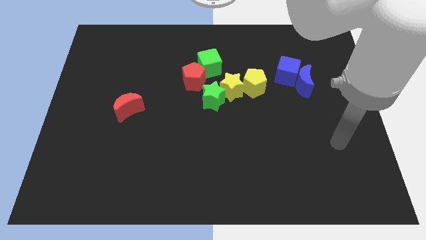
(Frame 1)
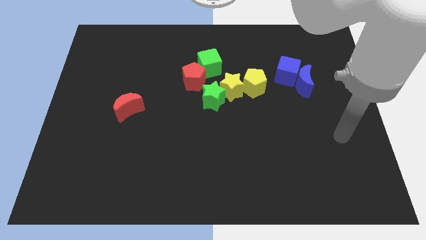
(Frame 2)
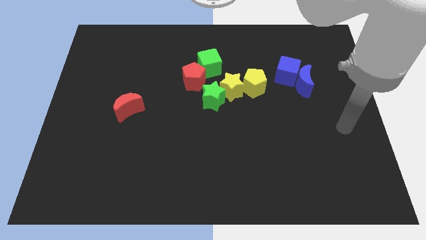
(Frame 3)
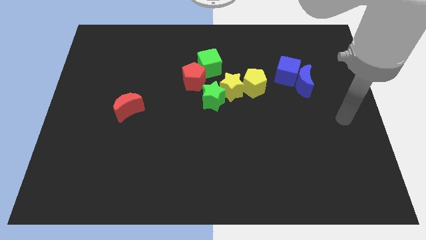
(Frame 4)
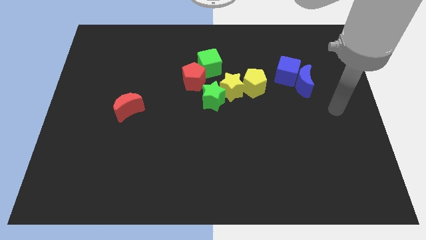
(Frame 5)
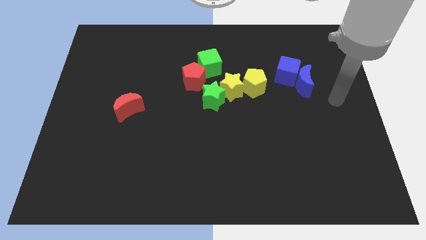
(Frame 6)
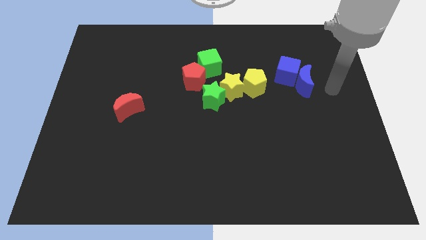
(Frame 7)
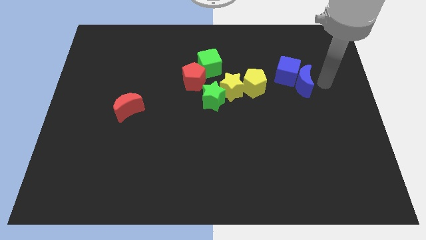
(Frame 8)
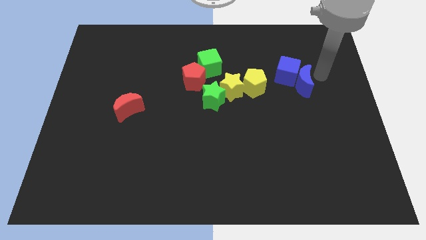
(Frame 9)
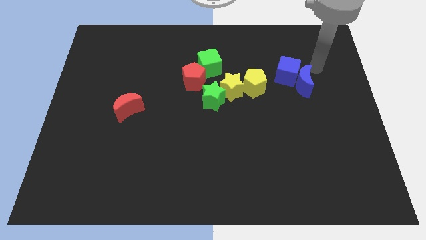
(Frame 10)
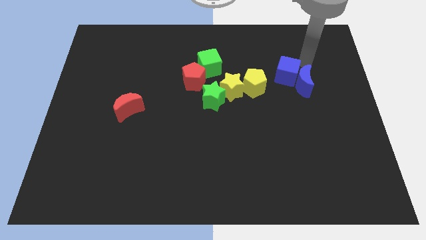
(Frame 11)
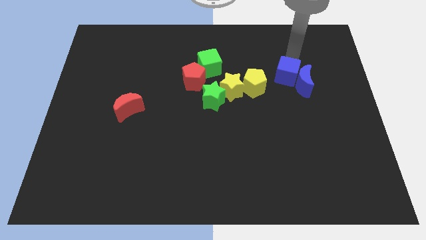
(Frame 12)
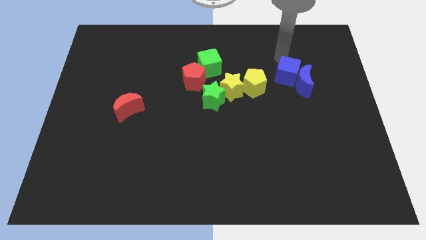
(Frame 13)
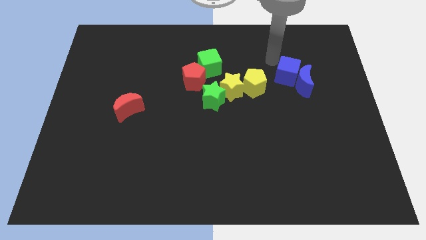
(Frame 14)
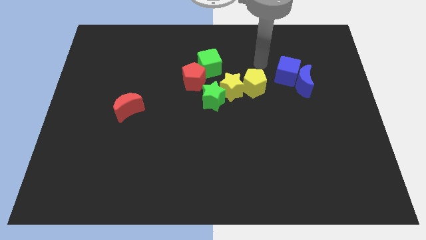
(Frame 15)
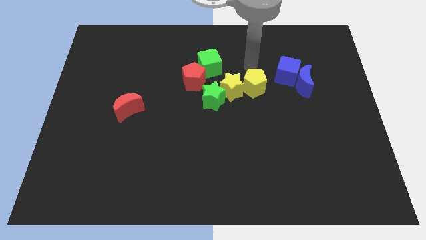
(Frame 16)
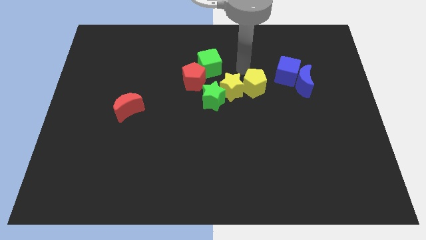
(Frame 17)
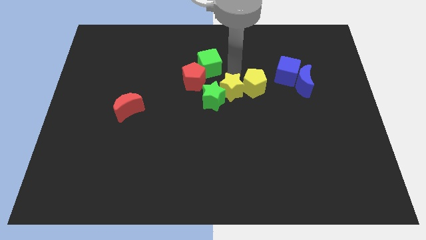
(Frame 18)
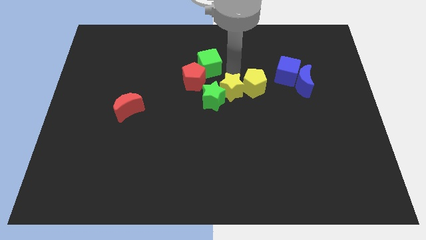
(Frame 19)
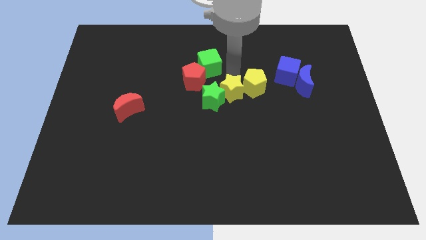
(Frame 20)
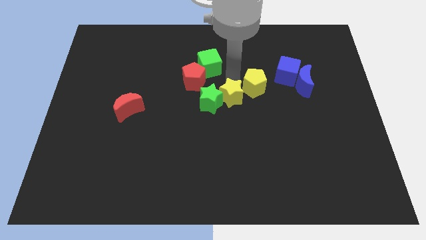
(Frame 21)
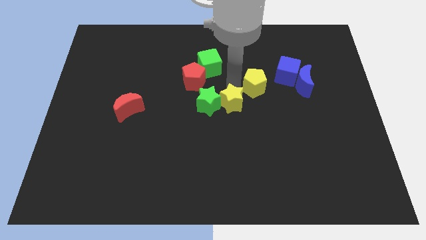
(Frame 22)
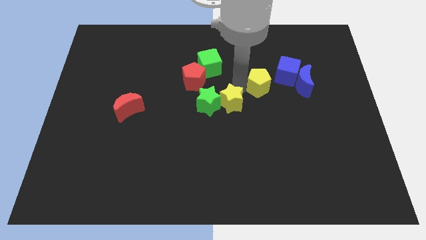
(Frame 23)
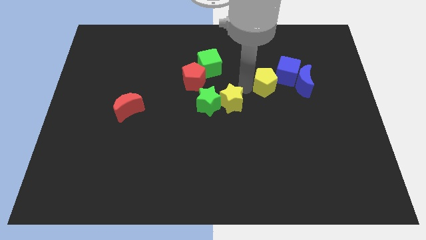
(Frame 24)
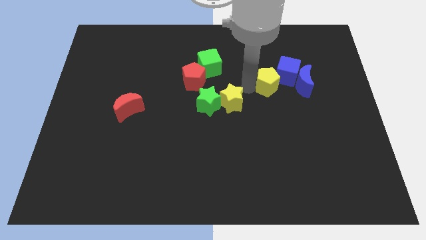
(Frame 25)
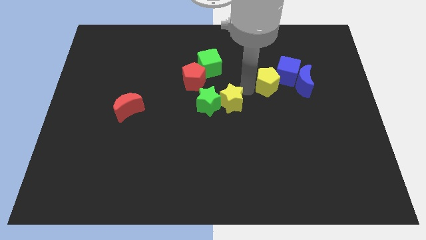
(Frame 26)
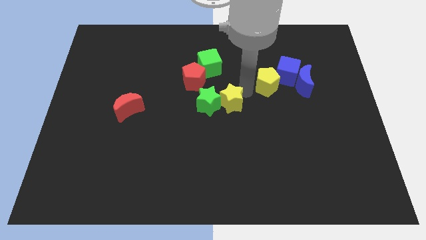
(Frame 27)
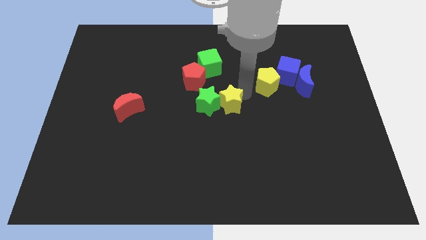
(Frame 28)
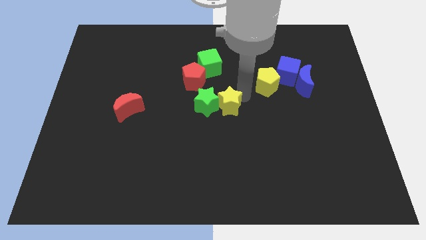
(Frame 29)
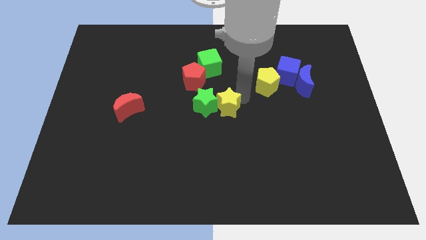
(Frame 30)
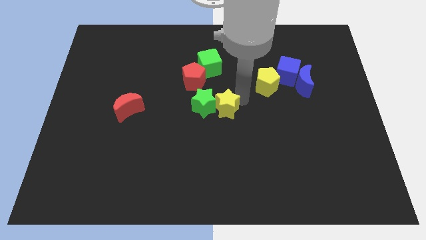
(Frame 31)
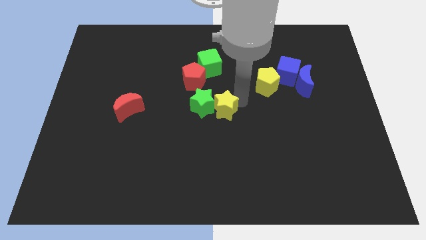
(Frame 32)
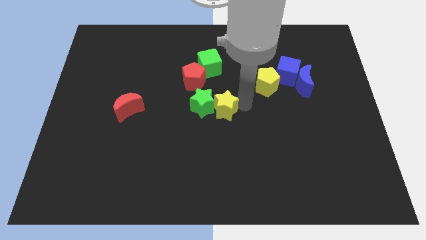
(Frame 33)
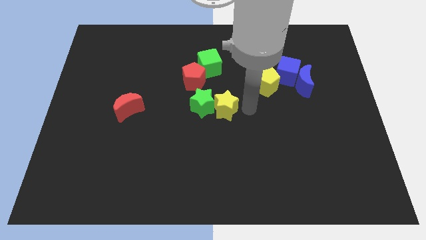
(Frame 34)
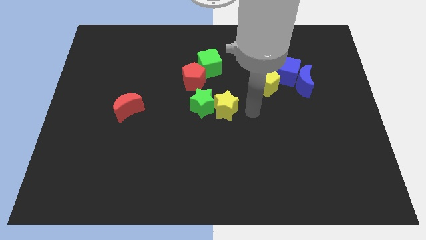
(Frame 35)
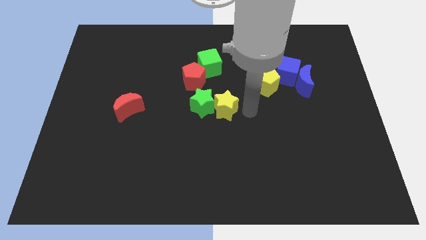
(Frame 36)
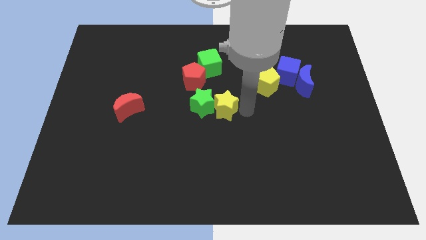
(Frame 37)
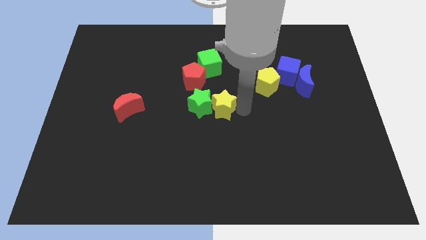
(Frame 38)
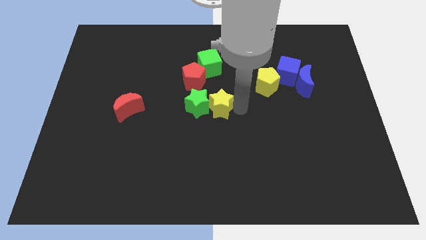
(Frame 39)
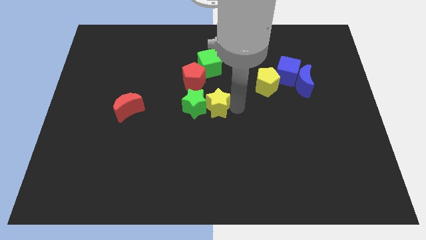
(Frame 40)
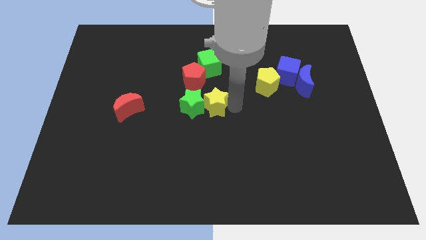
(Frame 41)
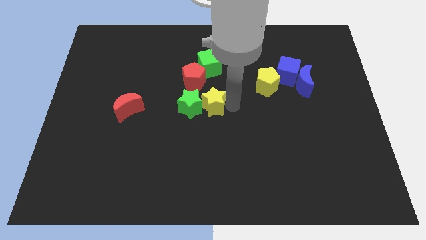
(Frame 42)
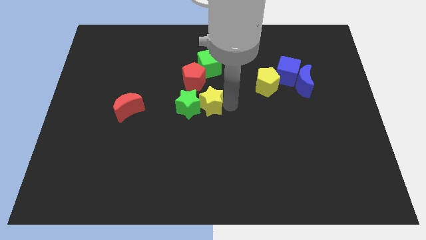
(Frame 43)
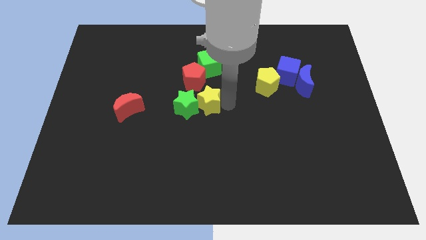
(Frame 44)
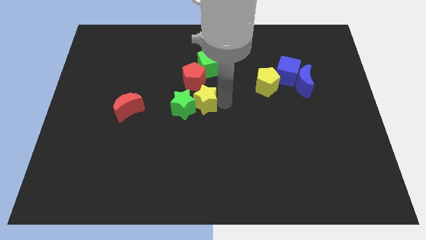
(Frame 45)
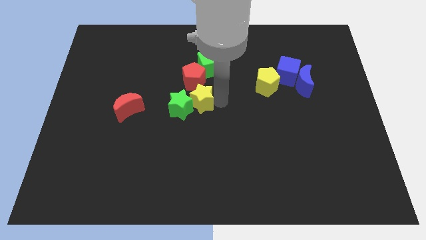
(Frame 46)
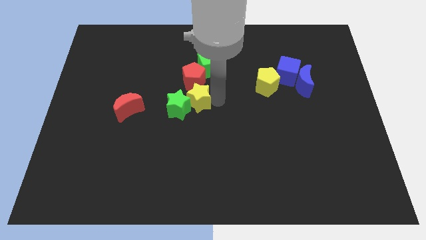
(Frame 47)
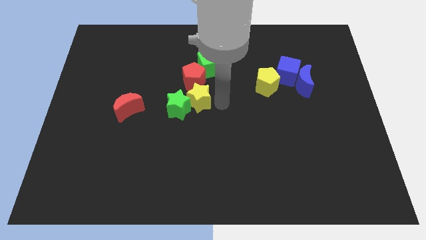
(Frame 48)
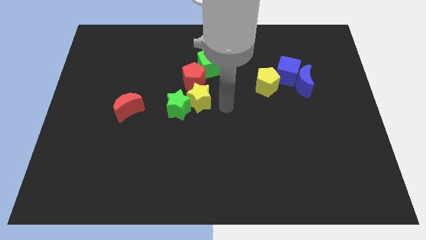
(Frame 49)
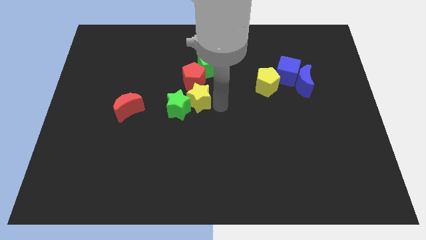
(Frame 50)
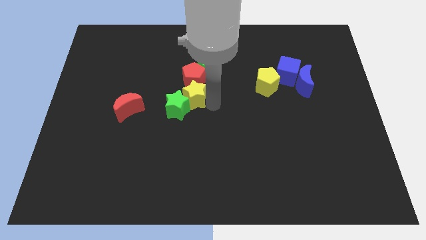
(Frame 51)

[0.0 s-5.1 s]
move the yellow star to the bottom left side of the red pentagon

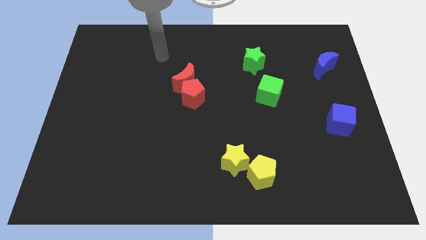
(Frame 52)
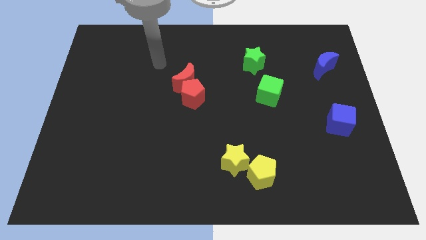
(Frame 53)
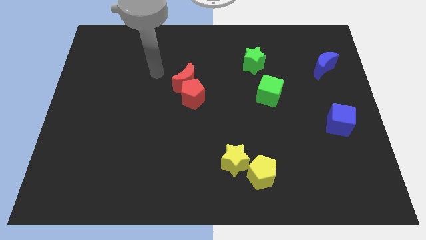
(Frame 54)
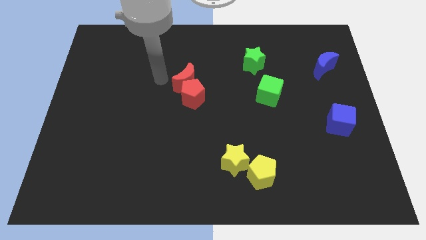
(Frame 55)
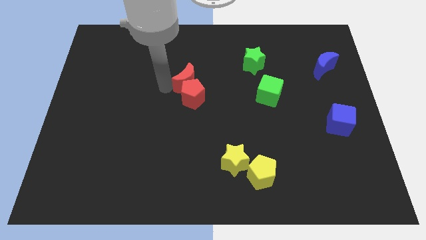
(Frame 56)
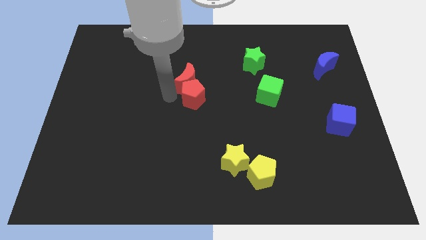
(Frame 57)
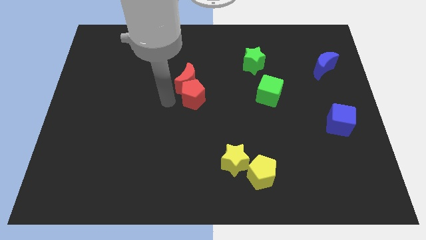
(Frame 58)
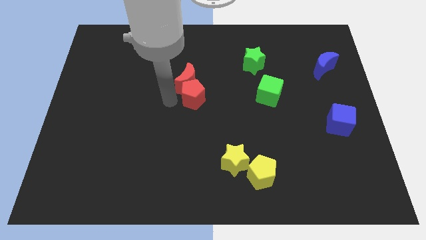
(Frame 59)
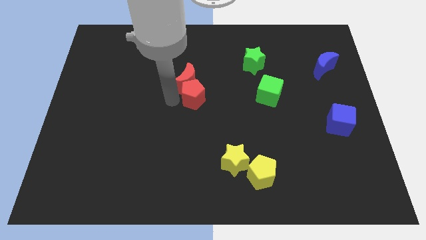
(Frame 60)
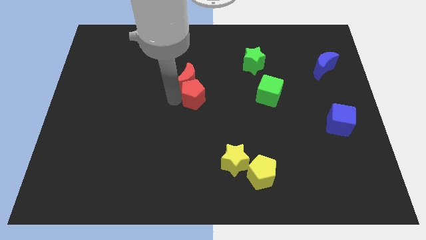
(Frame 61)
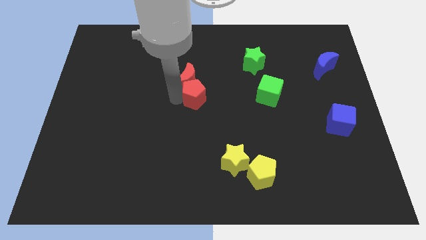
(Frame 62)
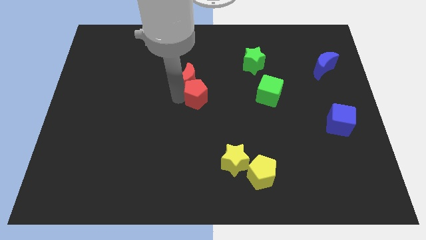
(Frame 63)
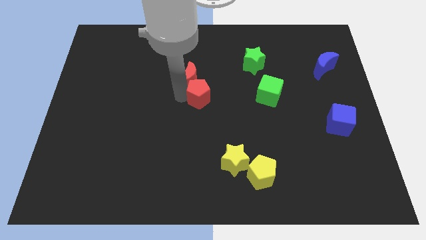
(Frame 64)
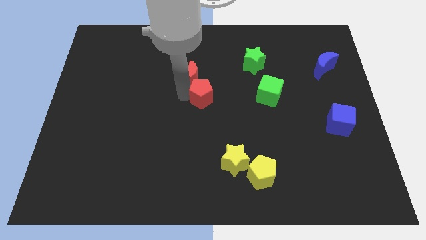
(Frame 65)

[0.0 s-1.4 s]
put the red pentagon left of the green cube

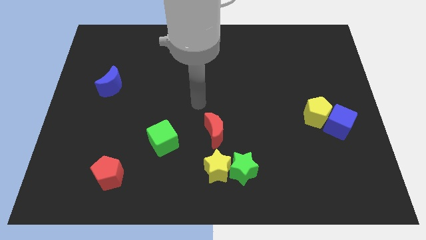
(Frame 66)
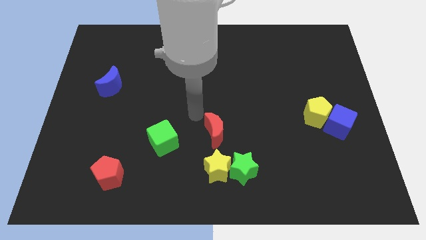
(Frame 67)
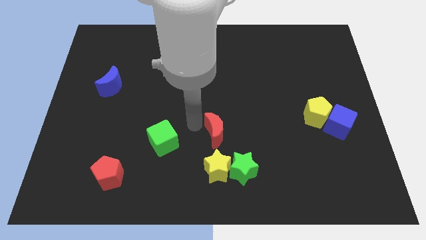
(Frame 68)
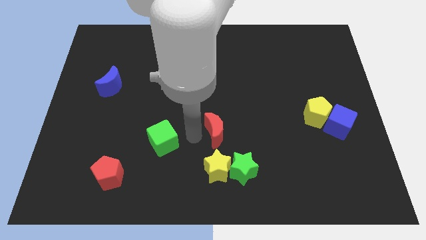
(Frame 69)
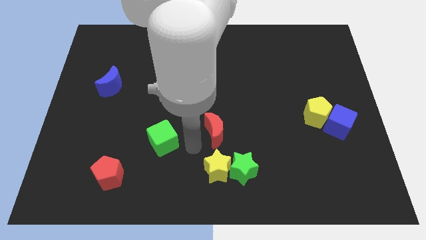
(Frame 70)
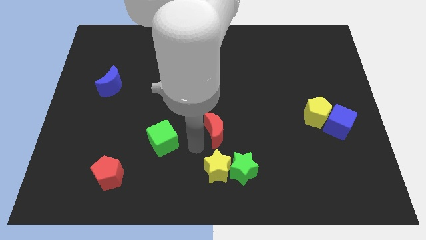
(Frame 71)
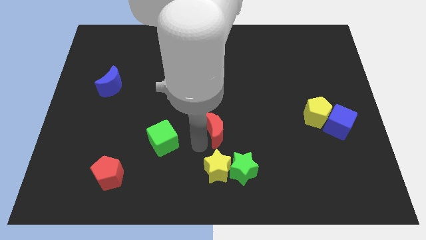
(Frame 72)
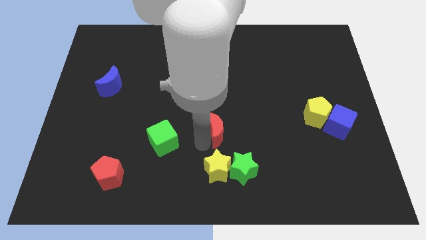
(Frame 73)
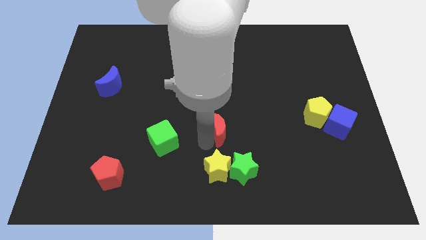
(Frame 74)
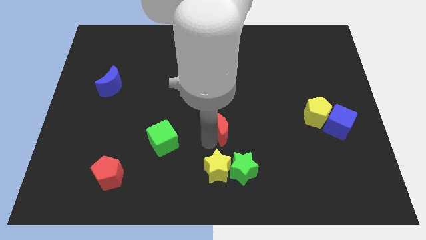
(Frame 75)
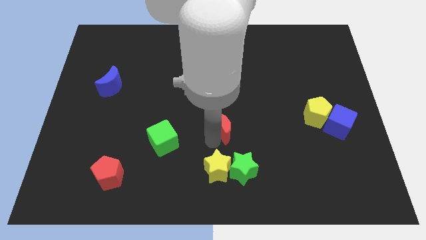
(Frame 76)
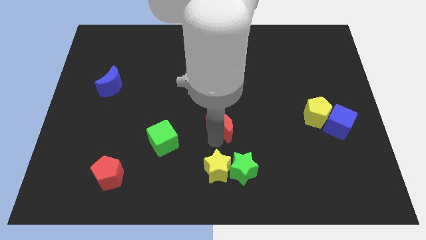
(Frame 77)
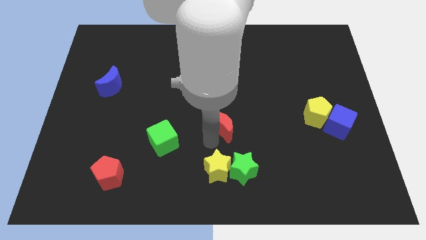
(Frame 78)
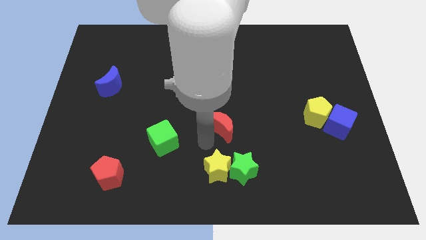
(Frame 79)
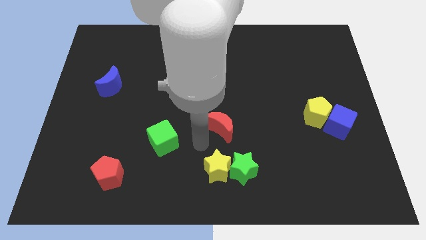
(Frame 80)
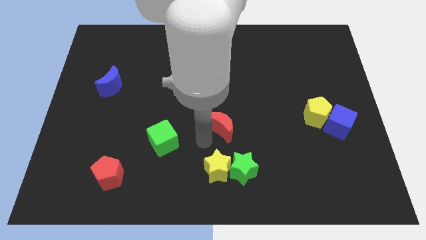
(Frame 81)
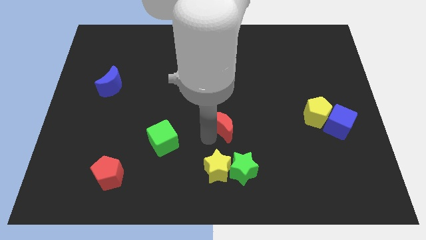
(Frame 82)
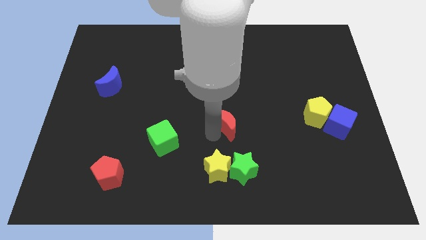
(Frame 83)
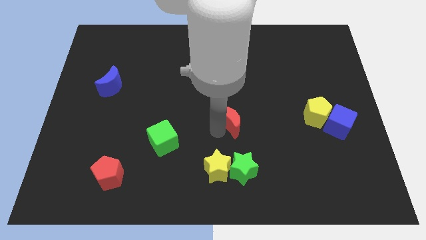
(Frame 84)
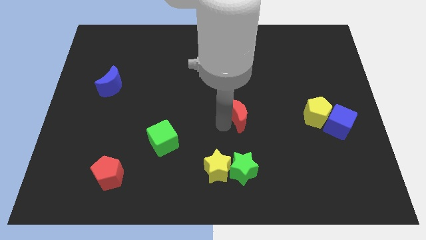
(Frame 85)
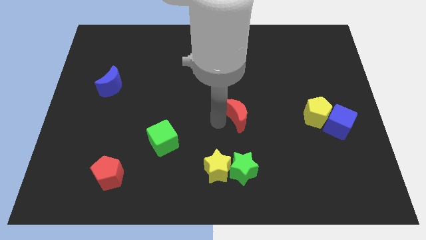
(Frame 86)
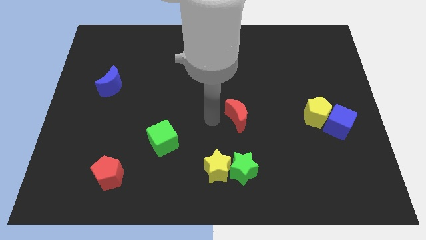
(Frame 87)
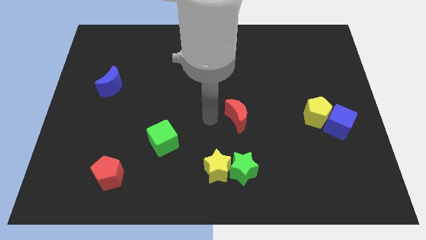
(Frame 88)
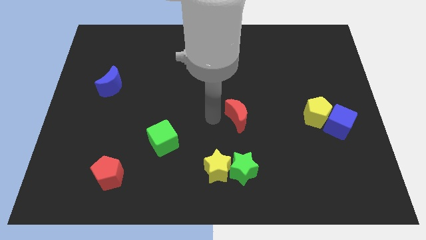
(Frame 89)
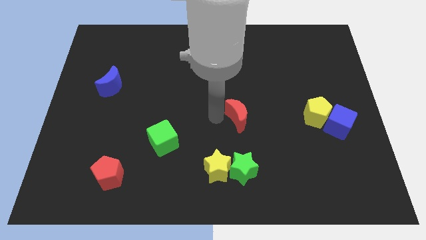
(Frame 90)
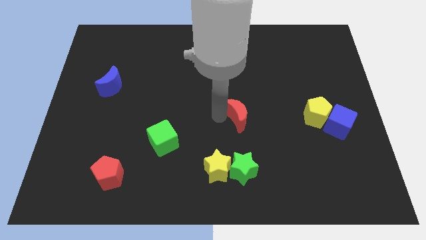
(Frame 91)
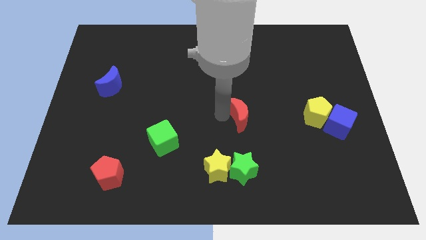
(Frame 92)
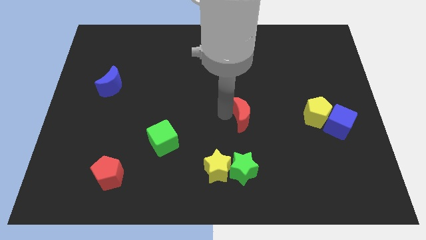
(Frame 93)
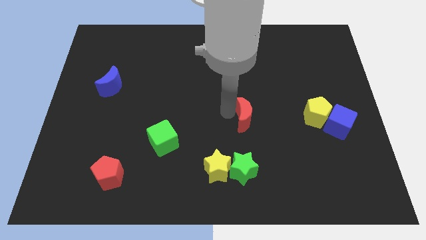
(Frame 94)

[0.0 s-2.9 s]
put the red moon left of the yellow pentagon
